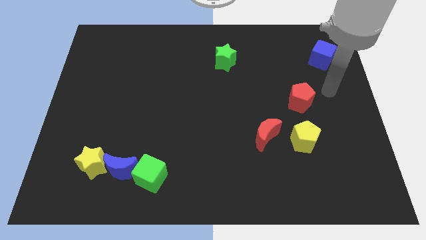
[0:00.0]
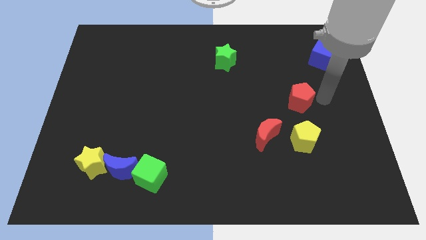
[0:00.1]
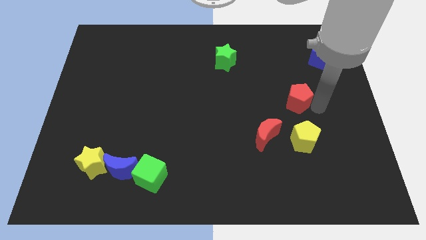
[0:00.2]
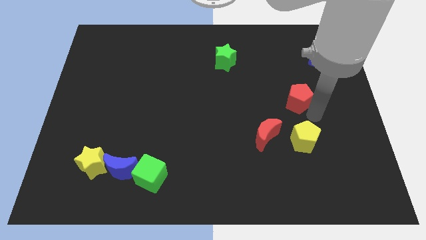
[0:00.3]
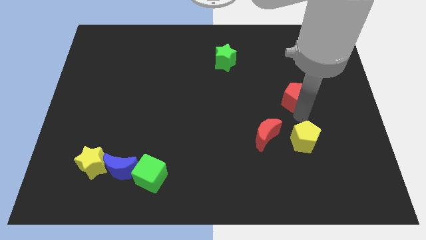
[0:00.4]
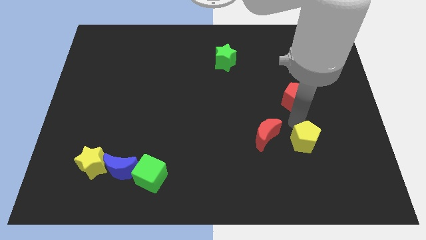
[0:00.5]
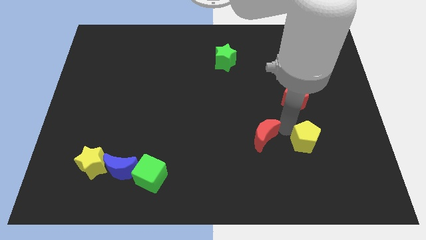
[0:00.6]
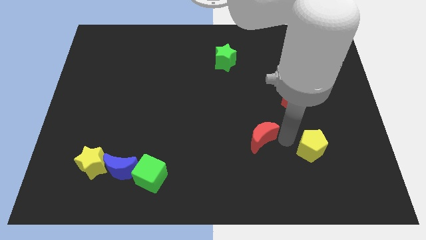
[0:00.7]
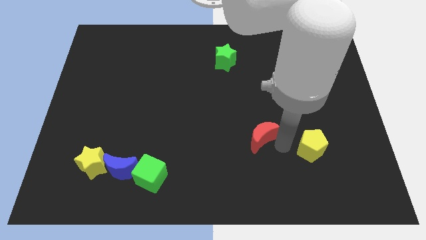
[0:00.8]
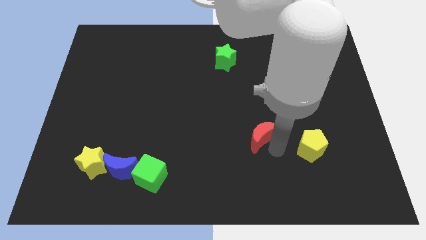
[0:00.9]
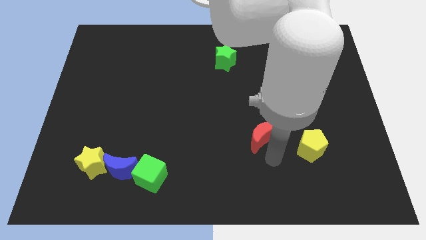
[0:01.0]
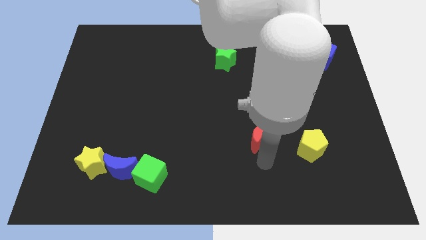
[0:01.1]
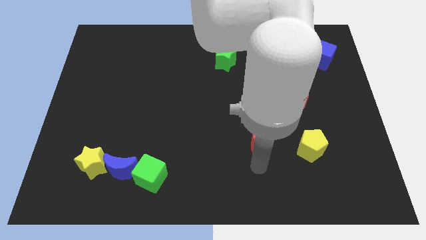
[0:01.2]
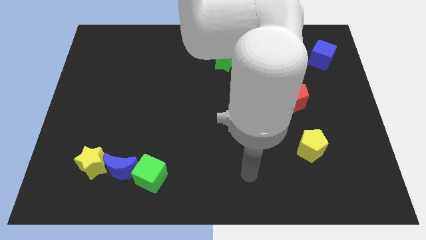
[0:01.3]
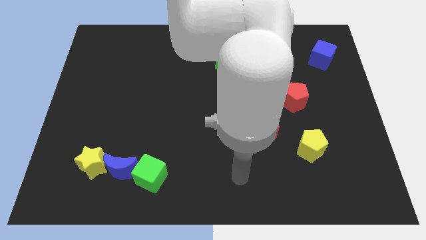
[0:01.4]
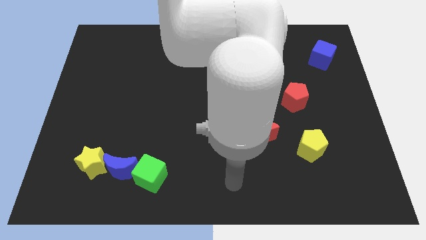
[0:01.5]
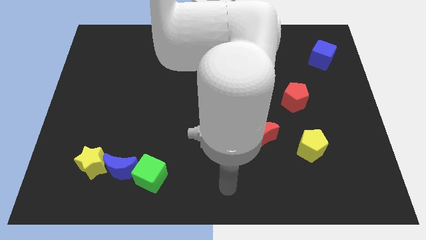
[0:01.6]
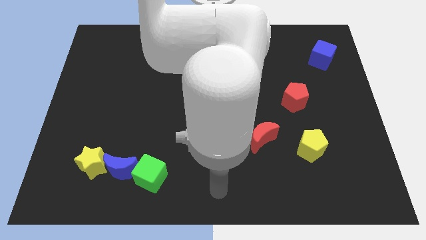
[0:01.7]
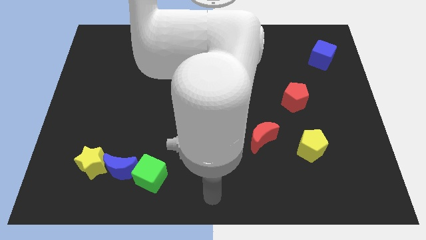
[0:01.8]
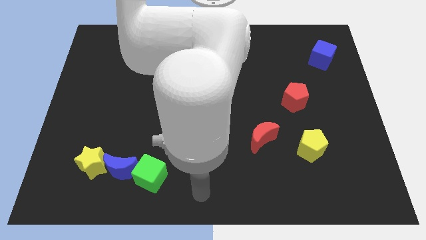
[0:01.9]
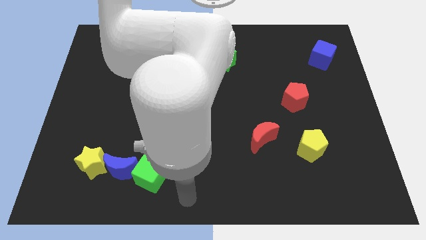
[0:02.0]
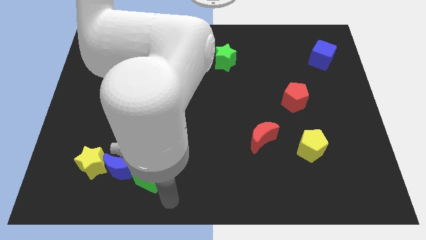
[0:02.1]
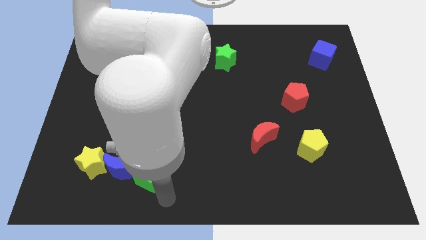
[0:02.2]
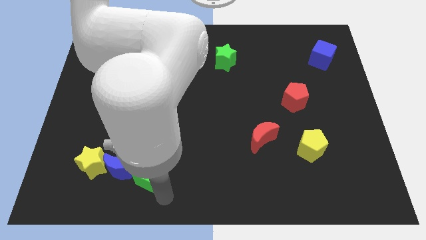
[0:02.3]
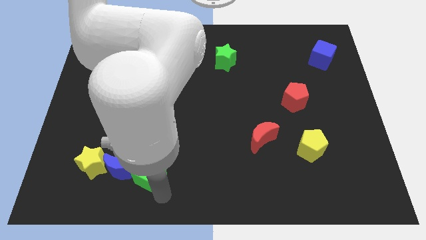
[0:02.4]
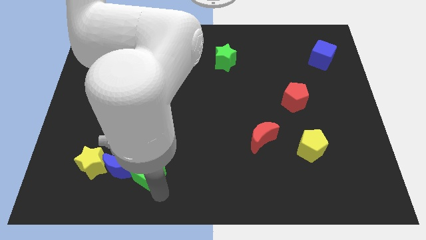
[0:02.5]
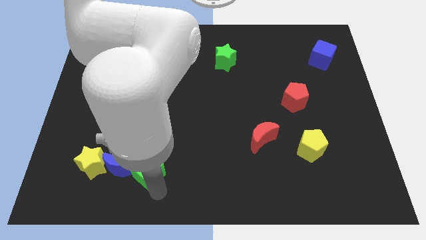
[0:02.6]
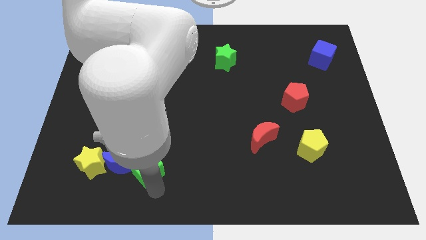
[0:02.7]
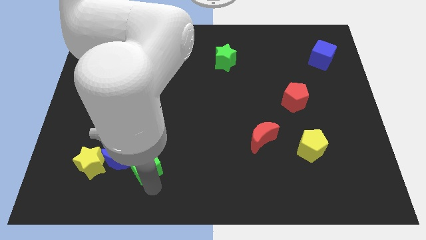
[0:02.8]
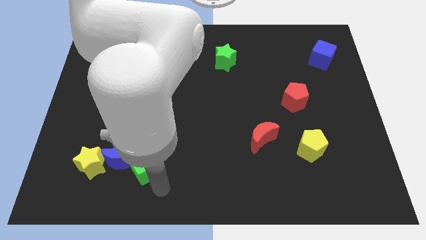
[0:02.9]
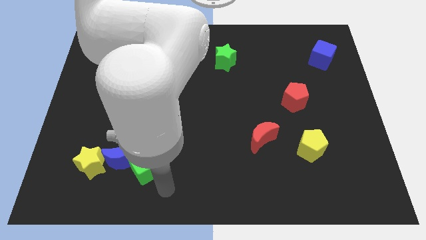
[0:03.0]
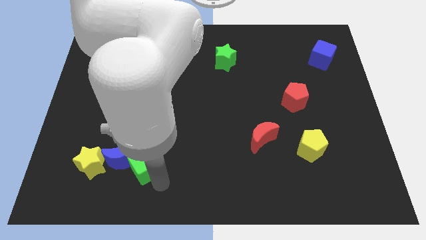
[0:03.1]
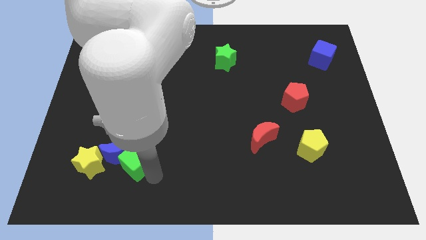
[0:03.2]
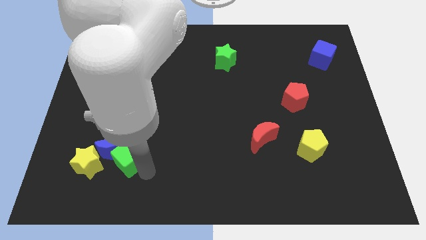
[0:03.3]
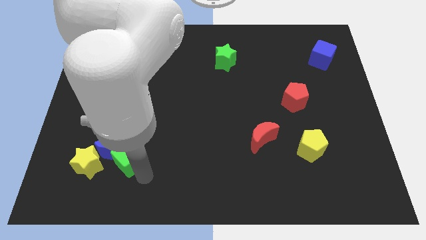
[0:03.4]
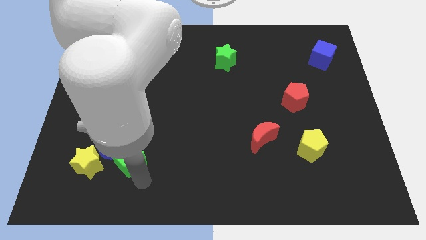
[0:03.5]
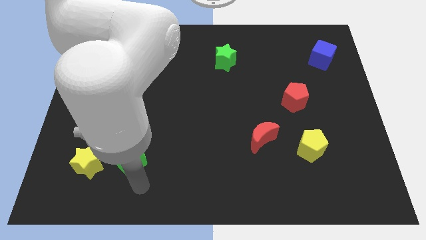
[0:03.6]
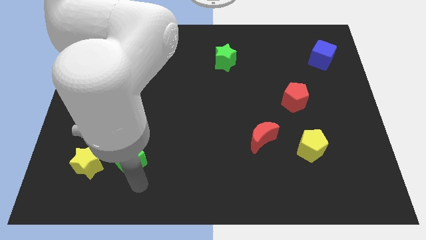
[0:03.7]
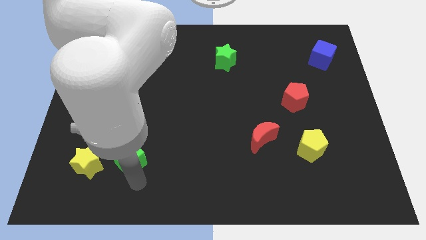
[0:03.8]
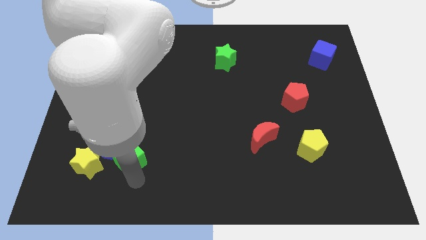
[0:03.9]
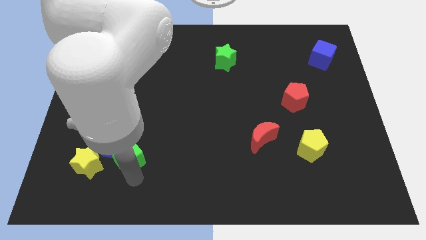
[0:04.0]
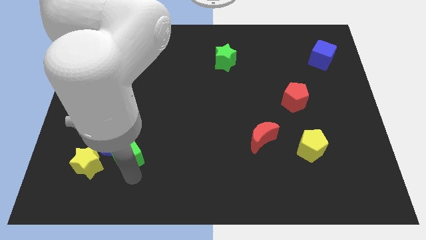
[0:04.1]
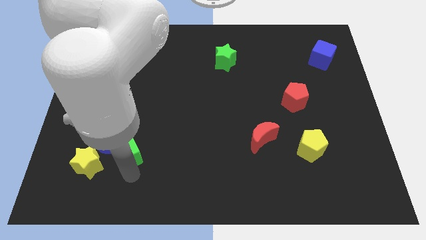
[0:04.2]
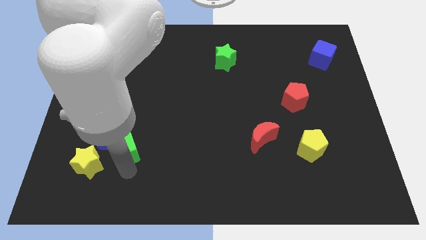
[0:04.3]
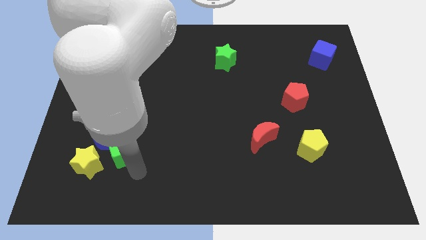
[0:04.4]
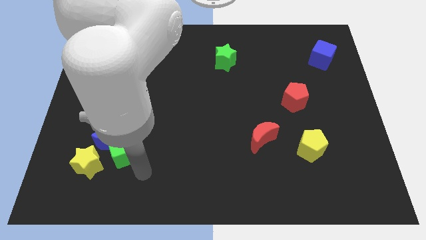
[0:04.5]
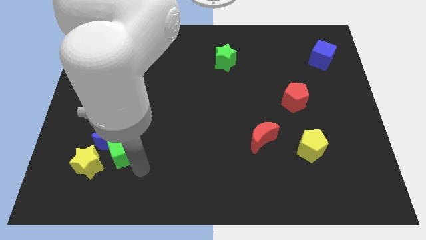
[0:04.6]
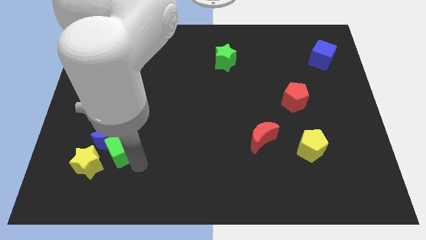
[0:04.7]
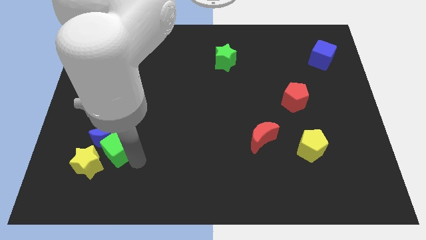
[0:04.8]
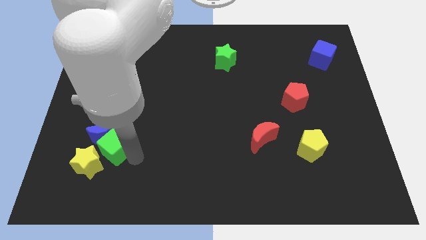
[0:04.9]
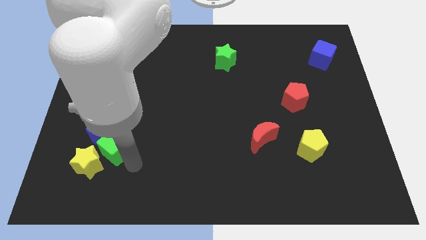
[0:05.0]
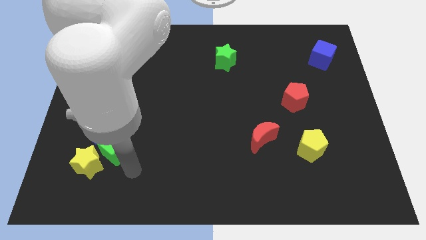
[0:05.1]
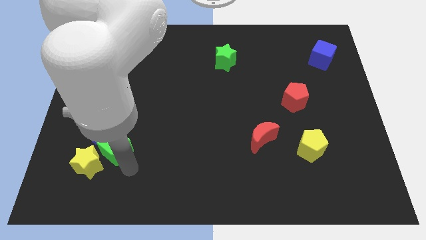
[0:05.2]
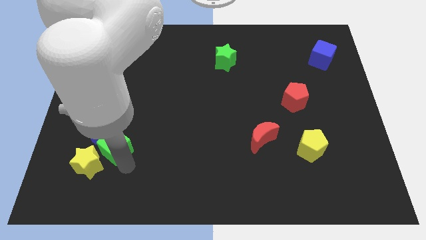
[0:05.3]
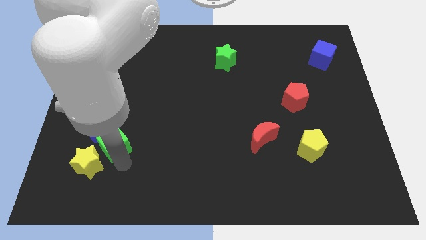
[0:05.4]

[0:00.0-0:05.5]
push the green cube to the top of the yellow star

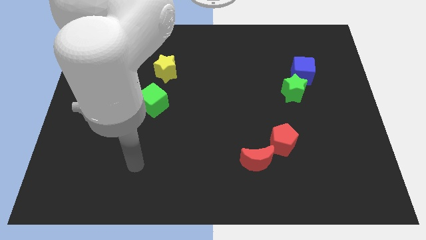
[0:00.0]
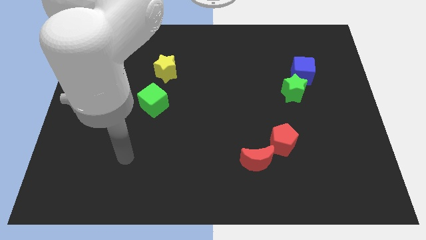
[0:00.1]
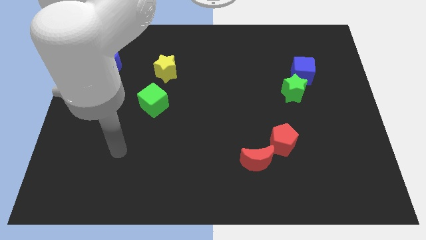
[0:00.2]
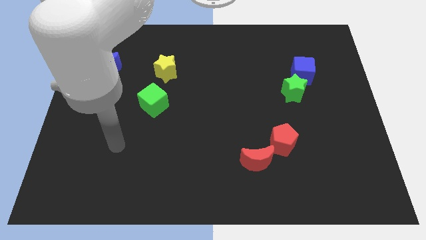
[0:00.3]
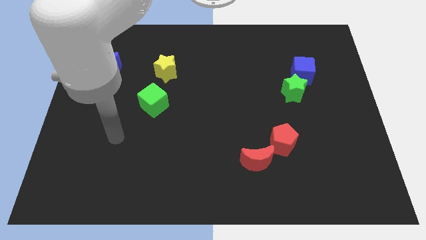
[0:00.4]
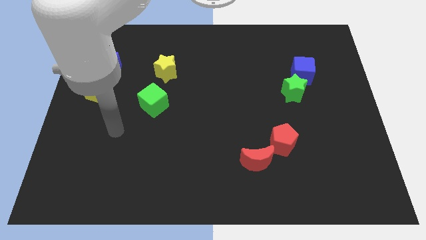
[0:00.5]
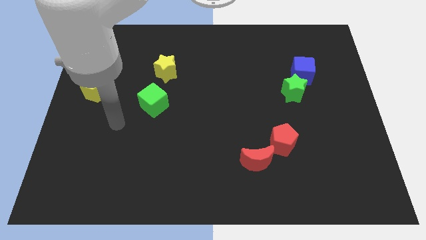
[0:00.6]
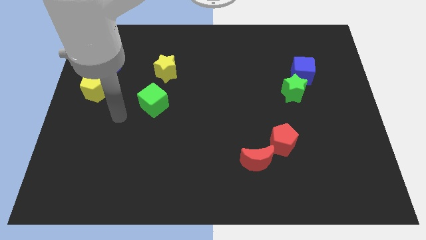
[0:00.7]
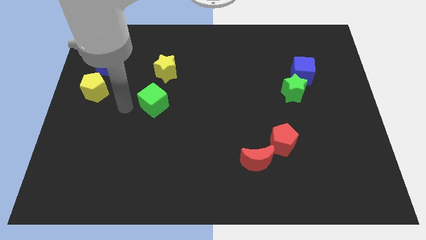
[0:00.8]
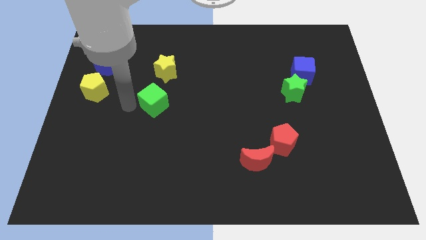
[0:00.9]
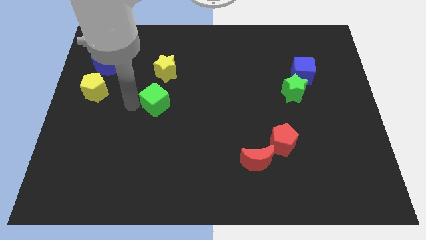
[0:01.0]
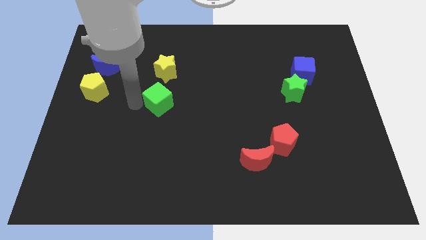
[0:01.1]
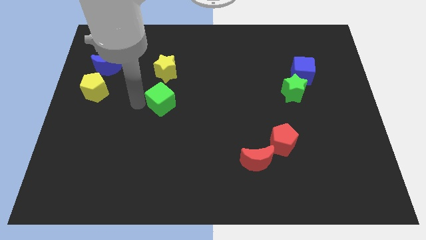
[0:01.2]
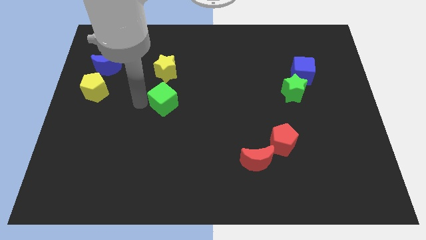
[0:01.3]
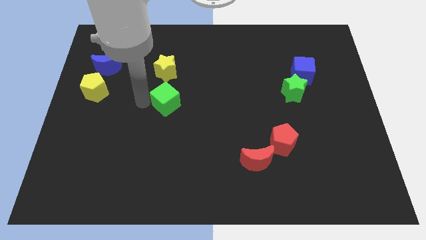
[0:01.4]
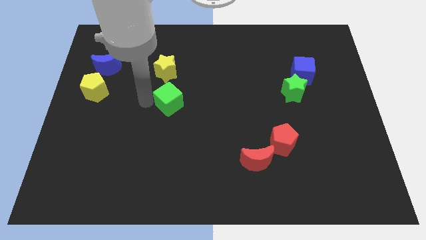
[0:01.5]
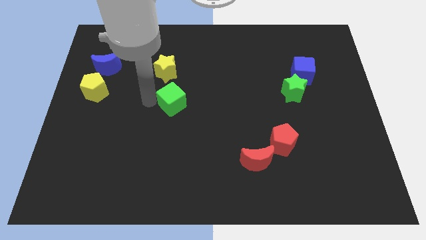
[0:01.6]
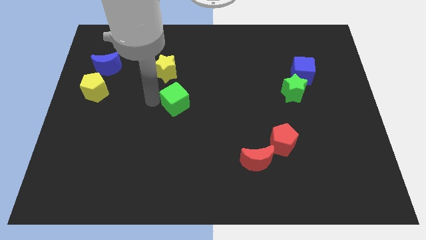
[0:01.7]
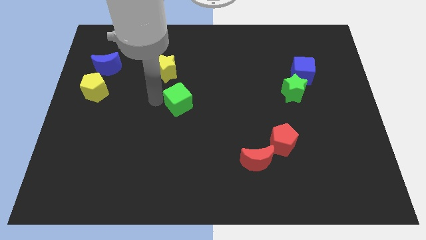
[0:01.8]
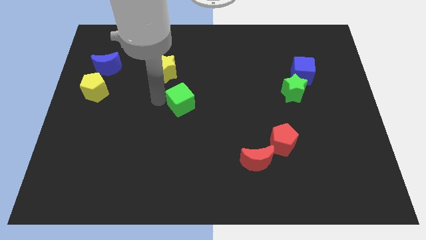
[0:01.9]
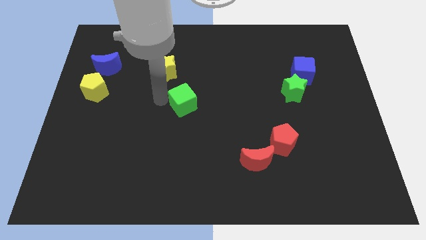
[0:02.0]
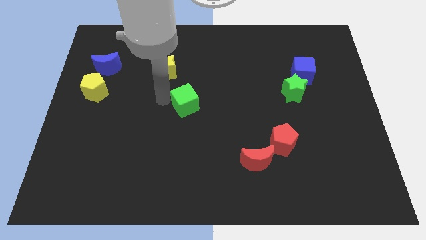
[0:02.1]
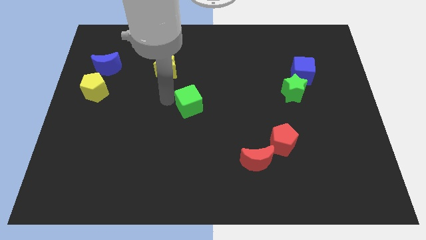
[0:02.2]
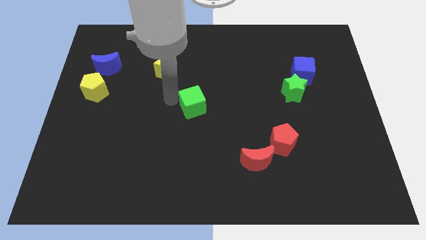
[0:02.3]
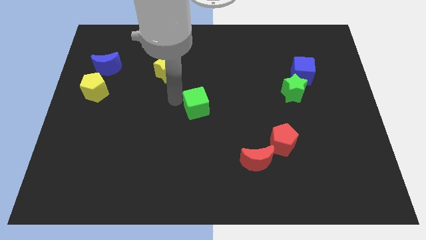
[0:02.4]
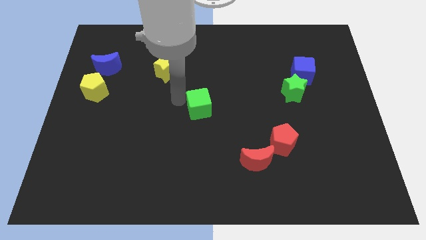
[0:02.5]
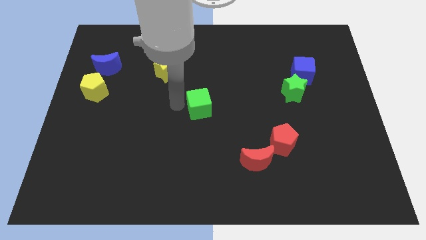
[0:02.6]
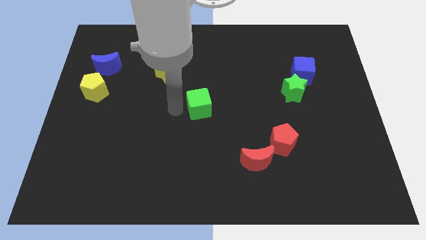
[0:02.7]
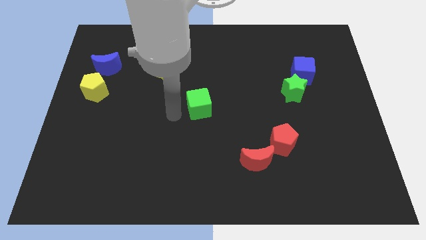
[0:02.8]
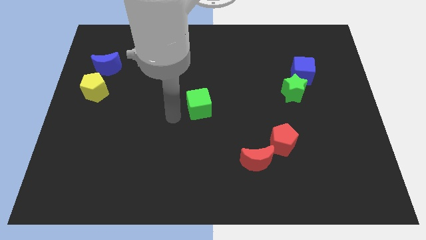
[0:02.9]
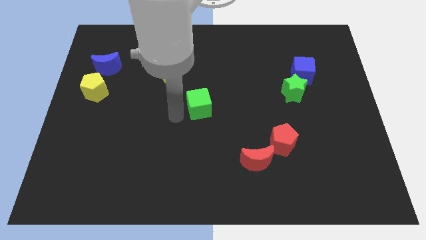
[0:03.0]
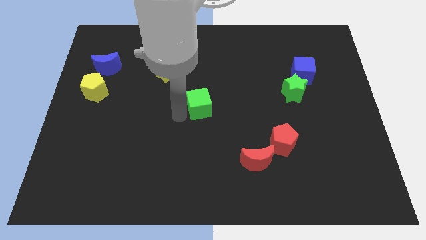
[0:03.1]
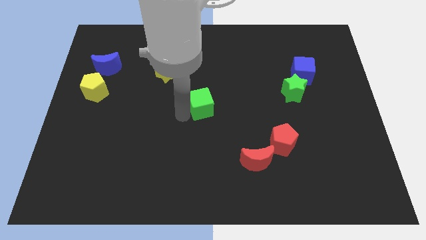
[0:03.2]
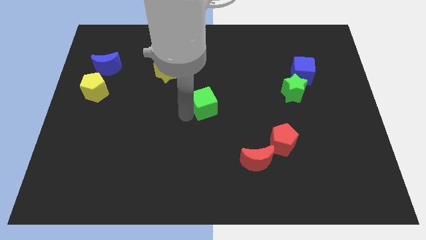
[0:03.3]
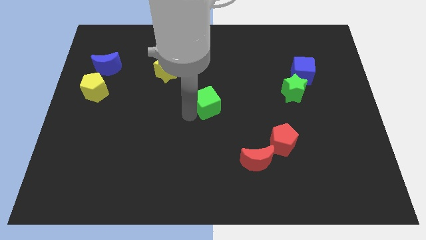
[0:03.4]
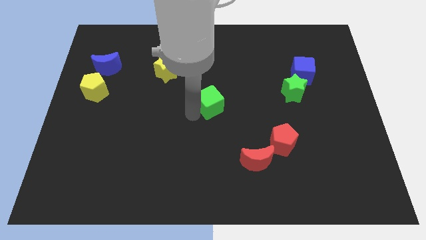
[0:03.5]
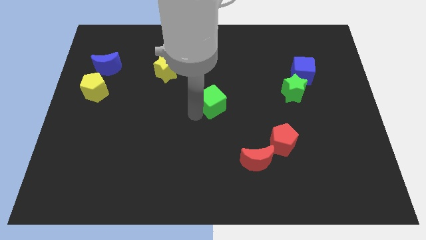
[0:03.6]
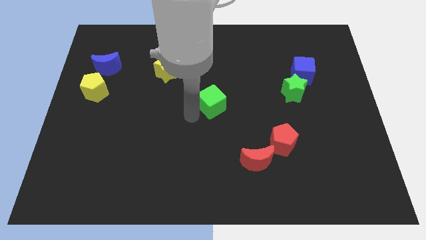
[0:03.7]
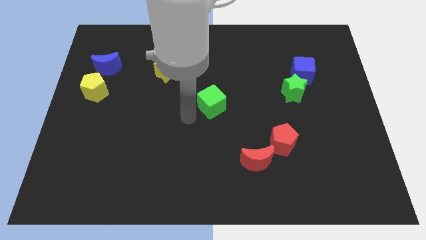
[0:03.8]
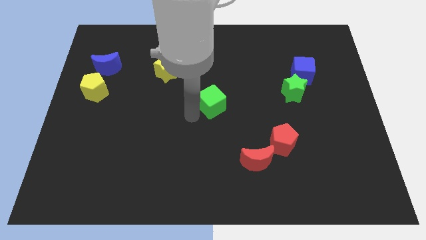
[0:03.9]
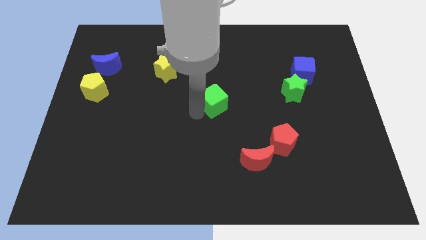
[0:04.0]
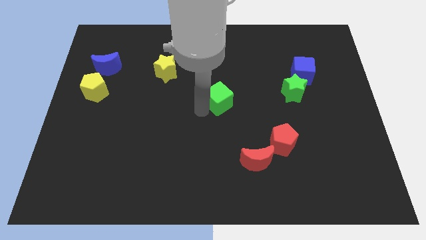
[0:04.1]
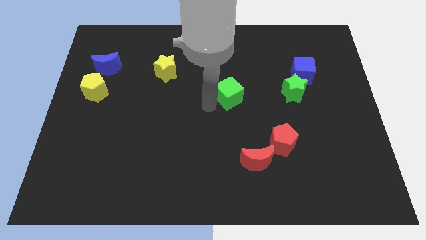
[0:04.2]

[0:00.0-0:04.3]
slide the green cube just left of the green star
